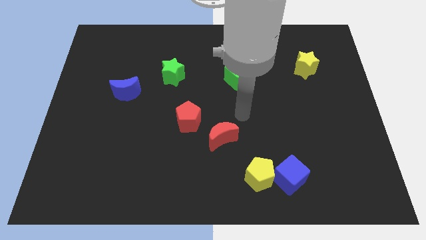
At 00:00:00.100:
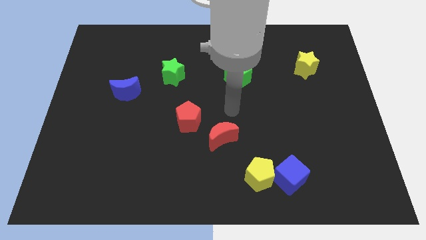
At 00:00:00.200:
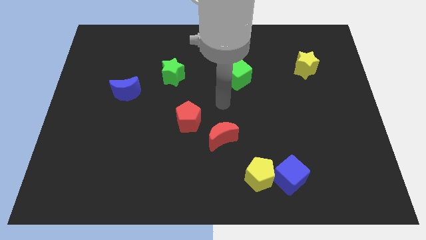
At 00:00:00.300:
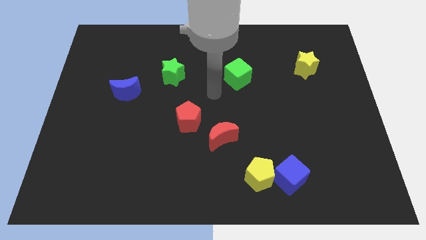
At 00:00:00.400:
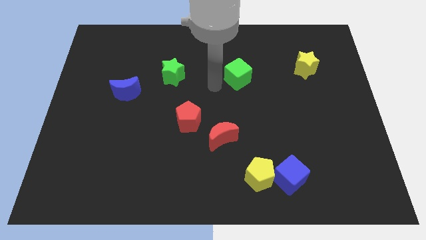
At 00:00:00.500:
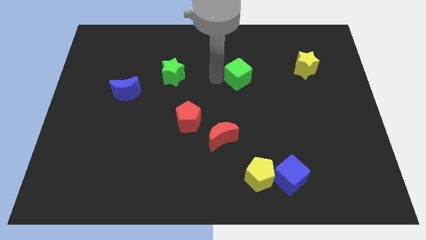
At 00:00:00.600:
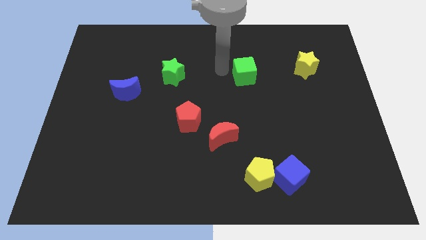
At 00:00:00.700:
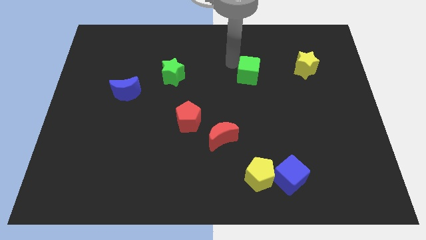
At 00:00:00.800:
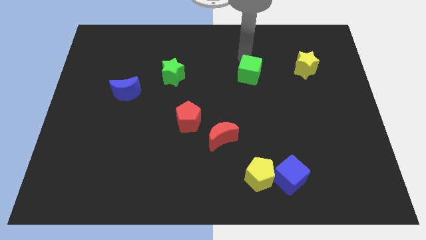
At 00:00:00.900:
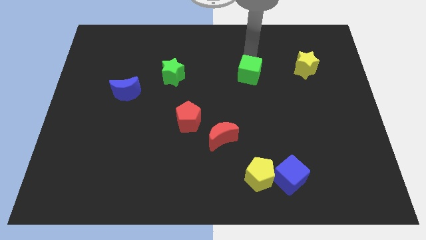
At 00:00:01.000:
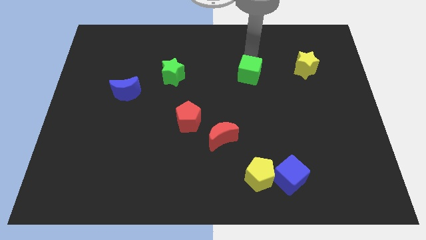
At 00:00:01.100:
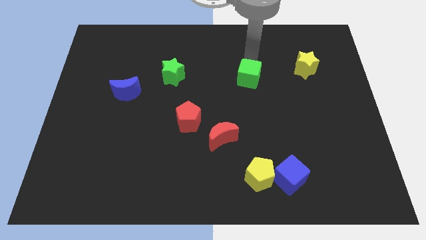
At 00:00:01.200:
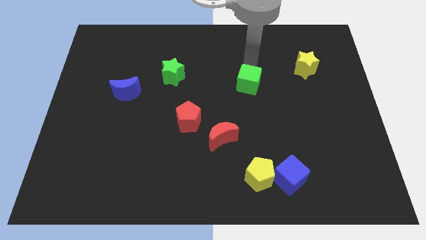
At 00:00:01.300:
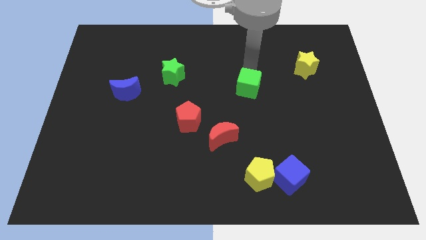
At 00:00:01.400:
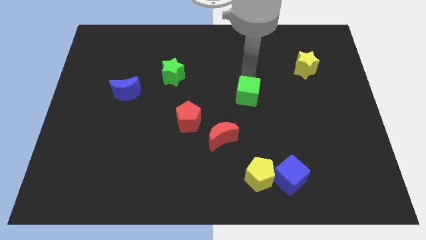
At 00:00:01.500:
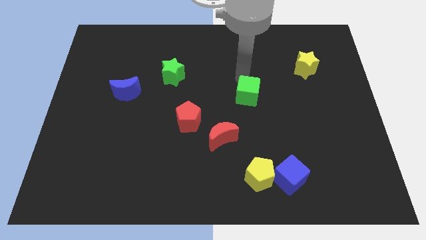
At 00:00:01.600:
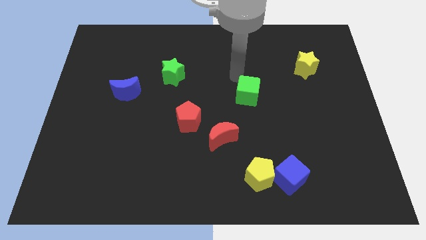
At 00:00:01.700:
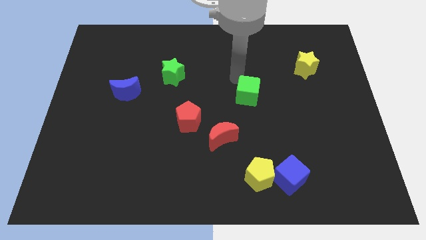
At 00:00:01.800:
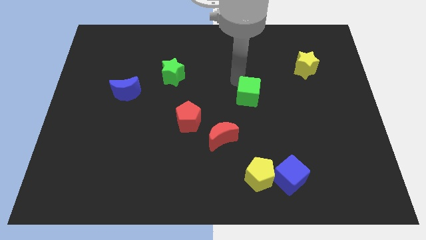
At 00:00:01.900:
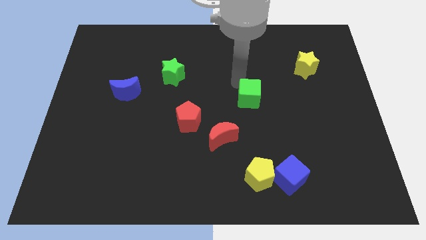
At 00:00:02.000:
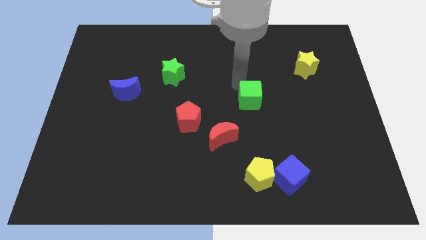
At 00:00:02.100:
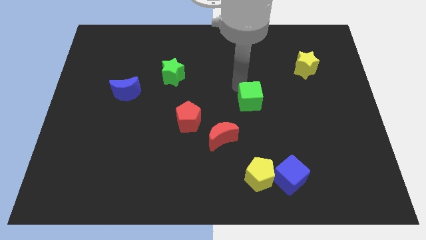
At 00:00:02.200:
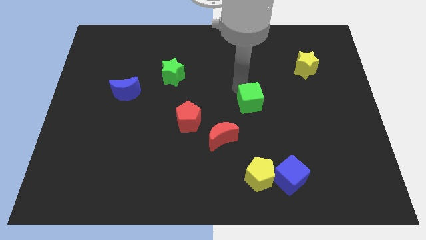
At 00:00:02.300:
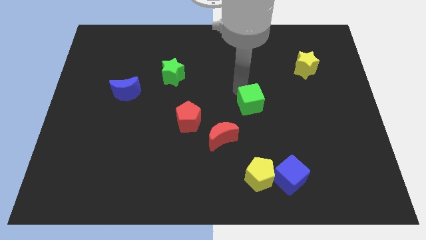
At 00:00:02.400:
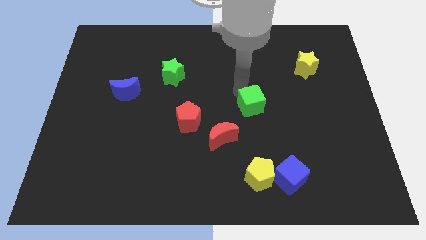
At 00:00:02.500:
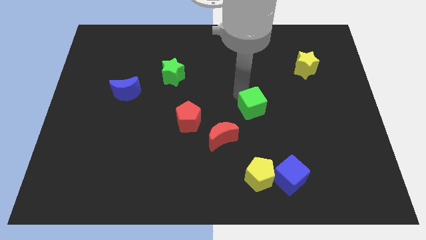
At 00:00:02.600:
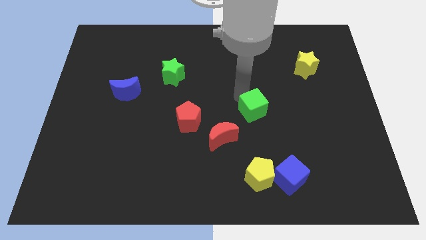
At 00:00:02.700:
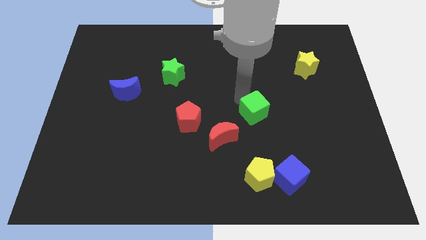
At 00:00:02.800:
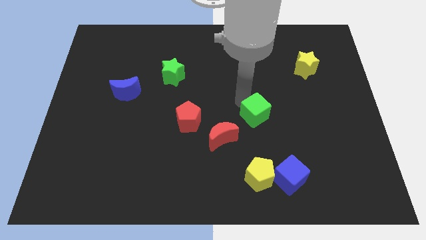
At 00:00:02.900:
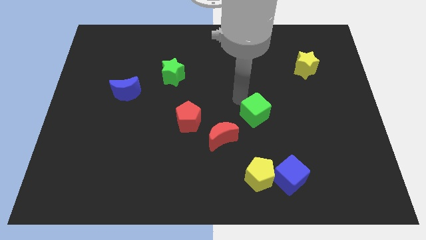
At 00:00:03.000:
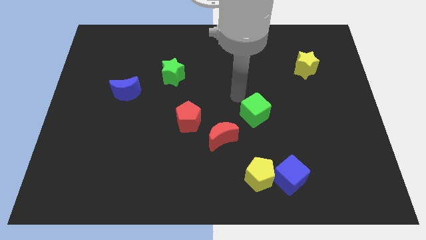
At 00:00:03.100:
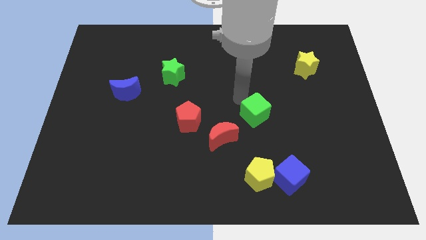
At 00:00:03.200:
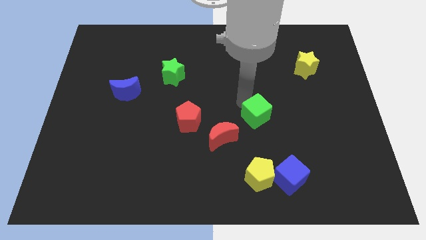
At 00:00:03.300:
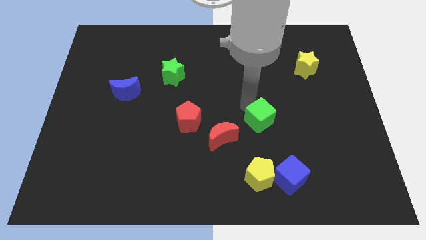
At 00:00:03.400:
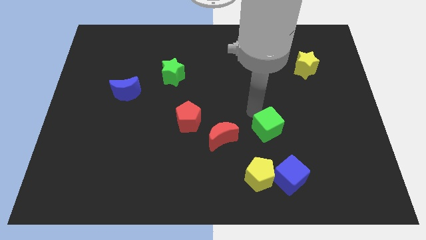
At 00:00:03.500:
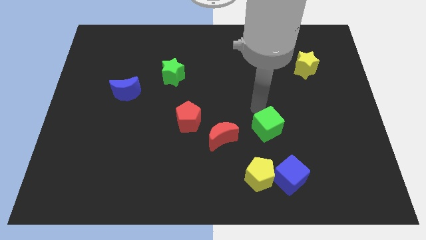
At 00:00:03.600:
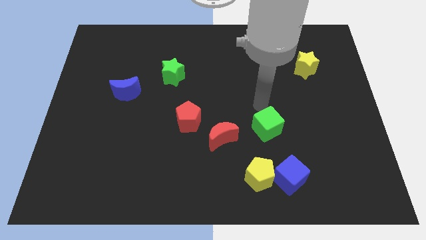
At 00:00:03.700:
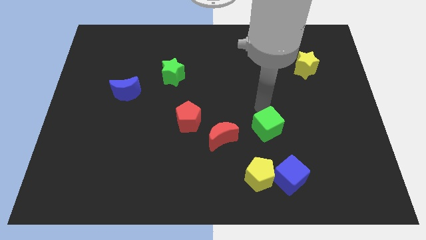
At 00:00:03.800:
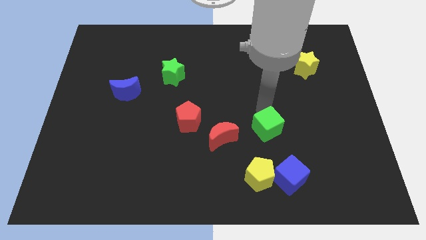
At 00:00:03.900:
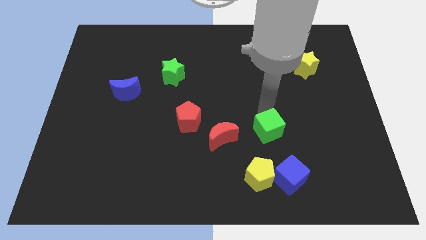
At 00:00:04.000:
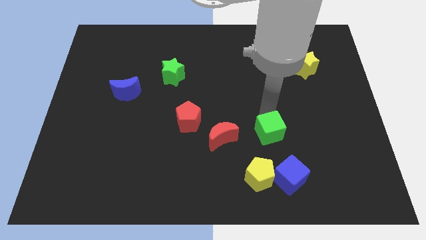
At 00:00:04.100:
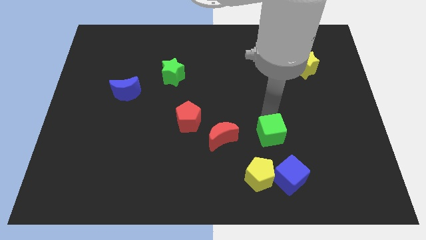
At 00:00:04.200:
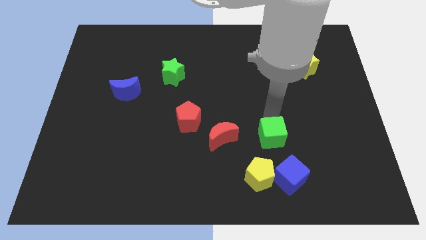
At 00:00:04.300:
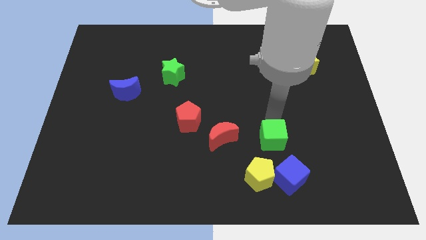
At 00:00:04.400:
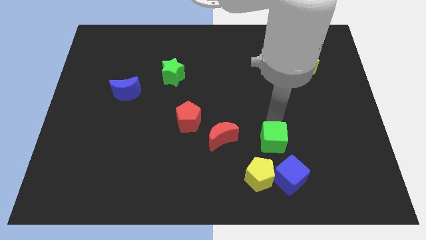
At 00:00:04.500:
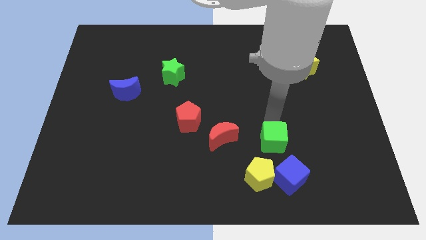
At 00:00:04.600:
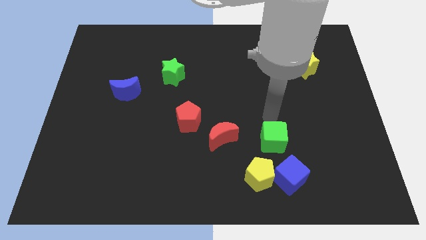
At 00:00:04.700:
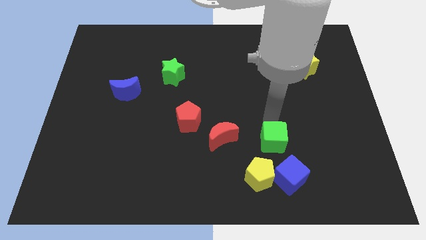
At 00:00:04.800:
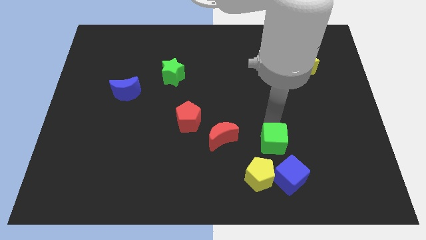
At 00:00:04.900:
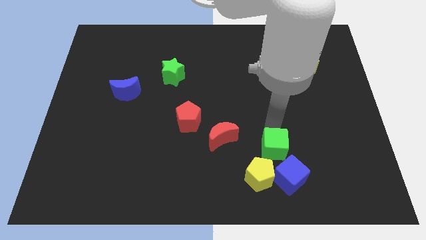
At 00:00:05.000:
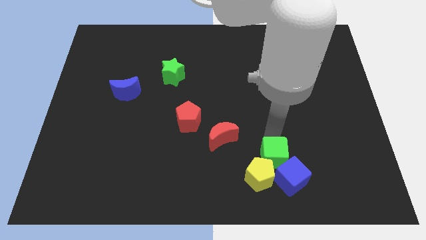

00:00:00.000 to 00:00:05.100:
slide the green cube next to the blue cube

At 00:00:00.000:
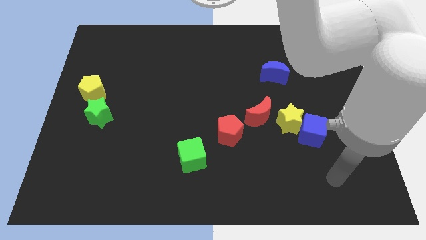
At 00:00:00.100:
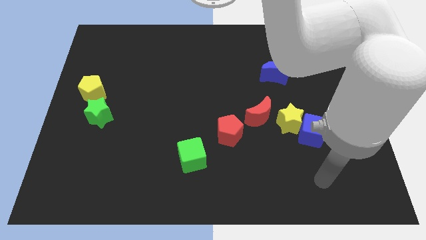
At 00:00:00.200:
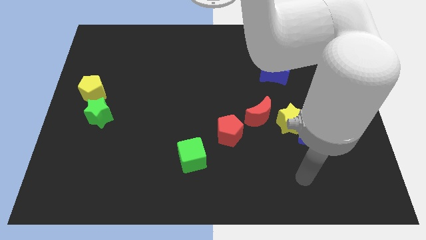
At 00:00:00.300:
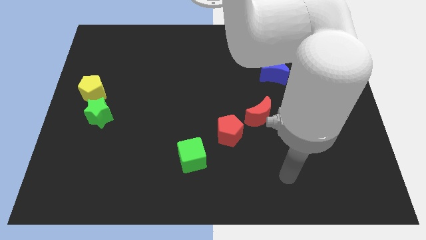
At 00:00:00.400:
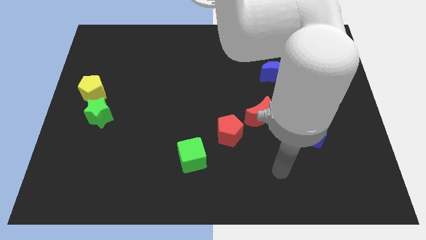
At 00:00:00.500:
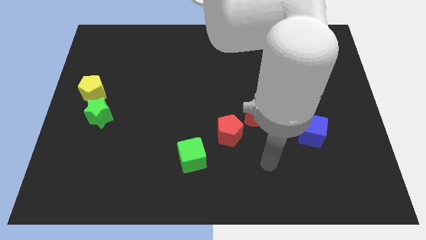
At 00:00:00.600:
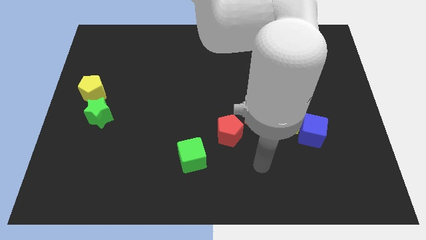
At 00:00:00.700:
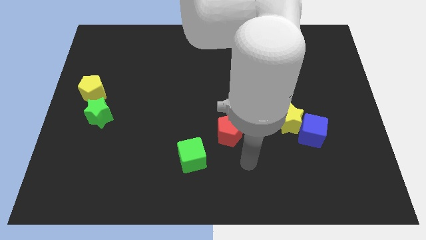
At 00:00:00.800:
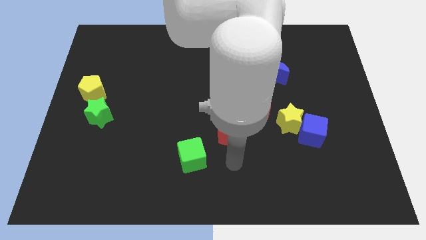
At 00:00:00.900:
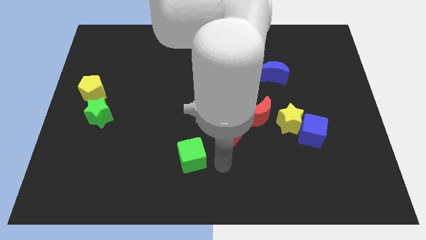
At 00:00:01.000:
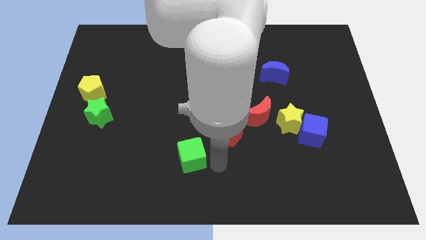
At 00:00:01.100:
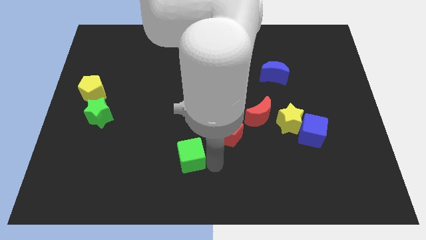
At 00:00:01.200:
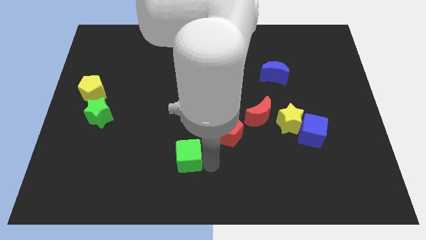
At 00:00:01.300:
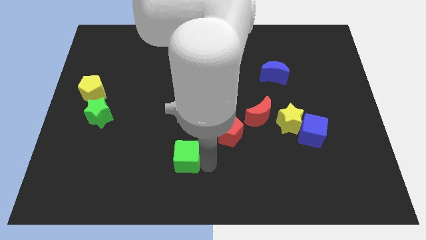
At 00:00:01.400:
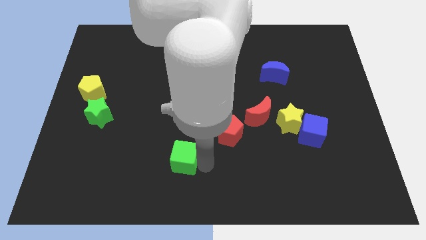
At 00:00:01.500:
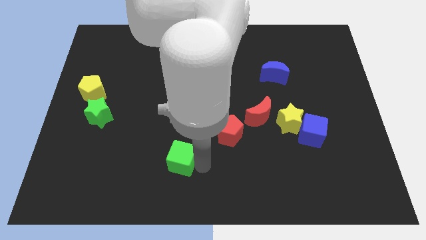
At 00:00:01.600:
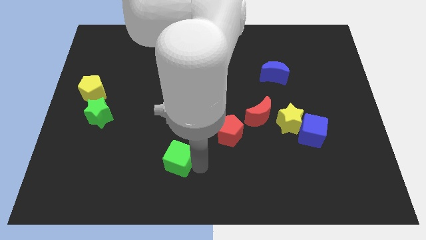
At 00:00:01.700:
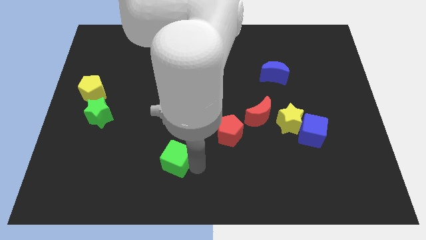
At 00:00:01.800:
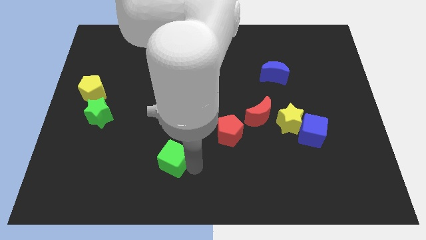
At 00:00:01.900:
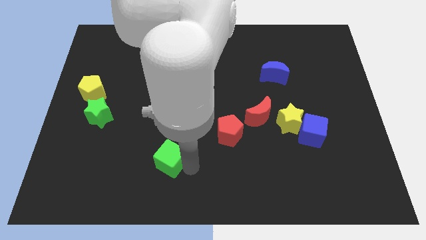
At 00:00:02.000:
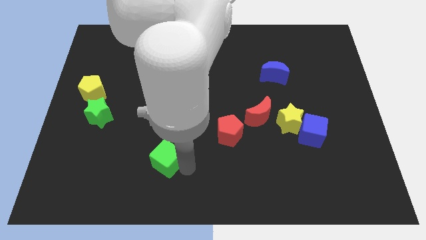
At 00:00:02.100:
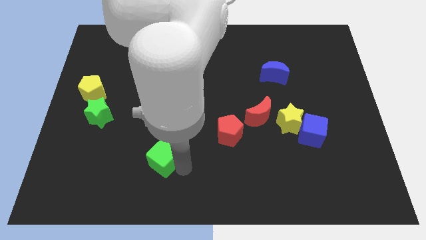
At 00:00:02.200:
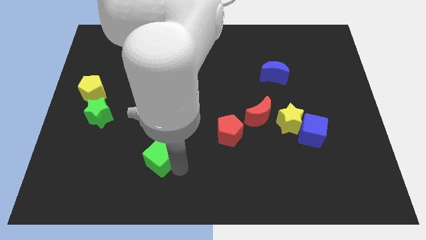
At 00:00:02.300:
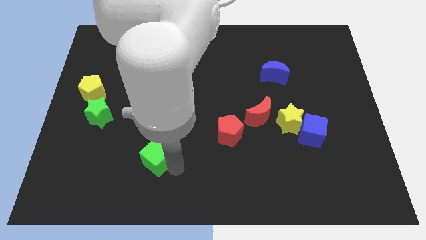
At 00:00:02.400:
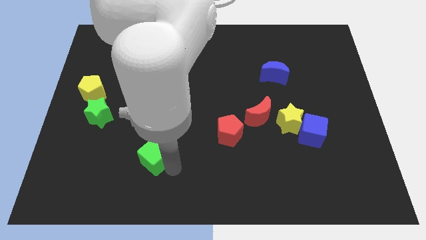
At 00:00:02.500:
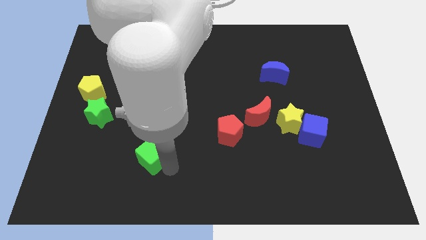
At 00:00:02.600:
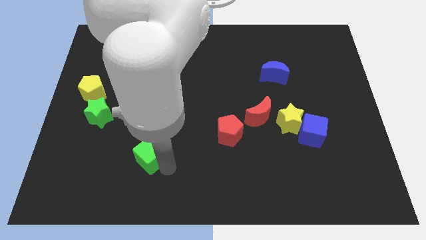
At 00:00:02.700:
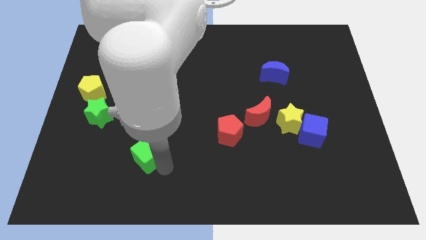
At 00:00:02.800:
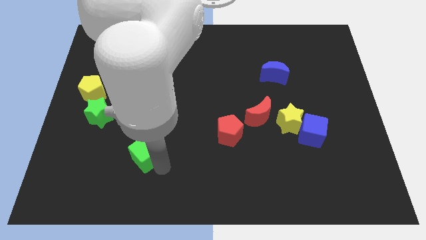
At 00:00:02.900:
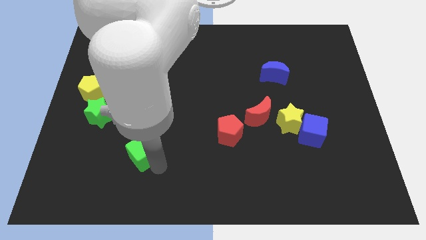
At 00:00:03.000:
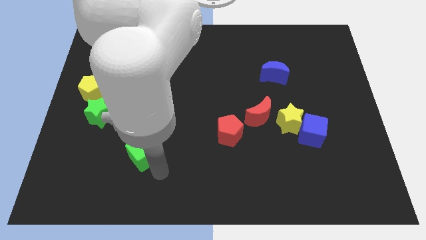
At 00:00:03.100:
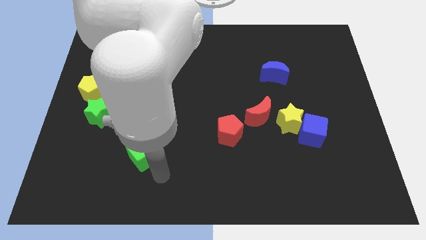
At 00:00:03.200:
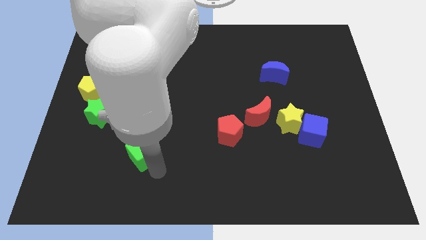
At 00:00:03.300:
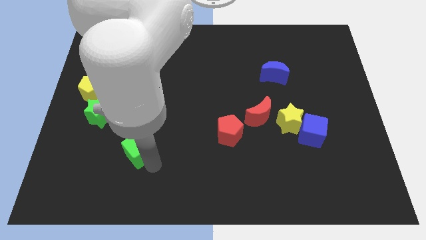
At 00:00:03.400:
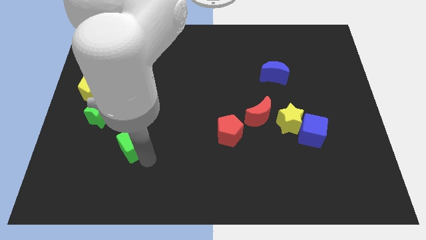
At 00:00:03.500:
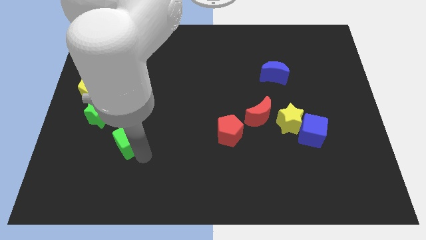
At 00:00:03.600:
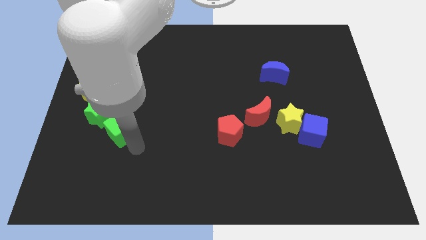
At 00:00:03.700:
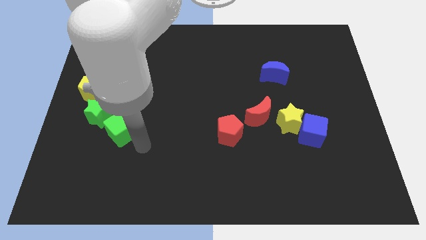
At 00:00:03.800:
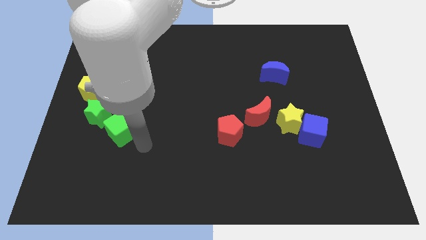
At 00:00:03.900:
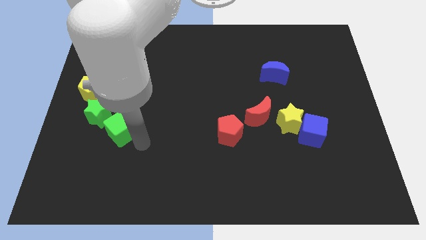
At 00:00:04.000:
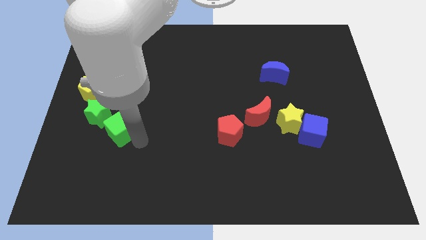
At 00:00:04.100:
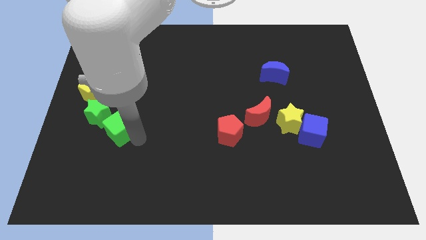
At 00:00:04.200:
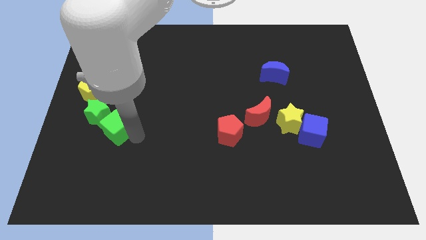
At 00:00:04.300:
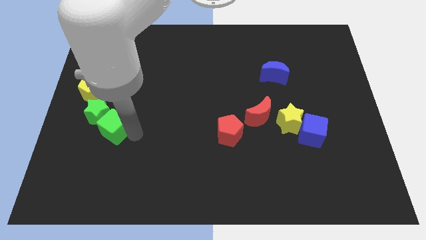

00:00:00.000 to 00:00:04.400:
push the green cube towards the green star
